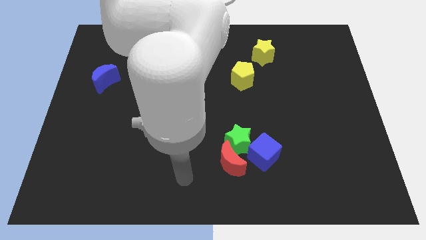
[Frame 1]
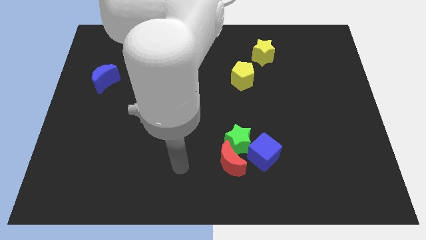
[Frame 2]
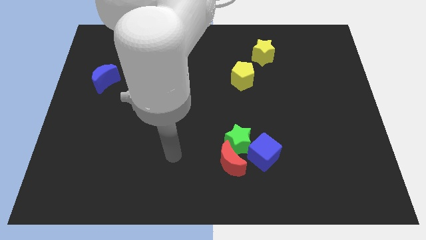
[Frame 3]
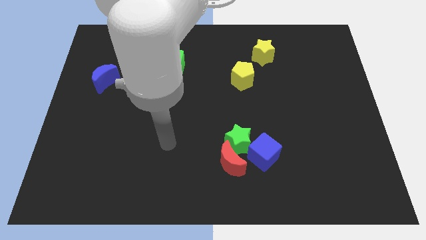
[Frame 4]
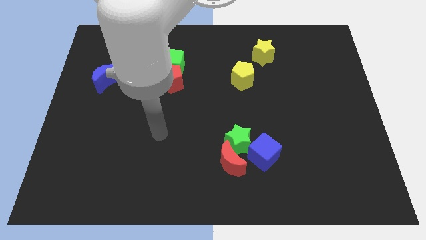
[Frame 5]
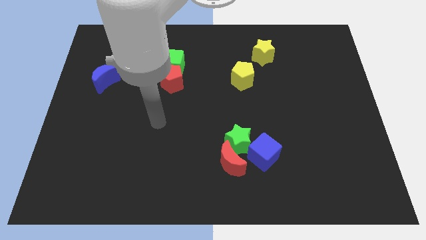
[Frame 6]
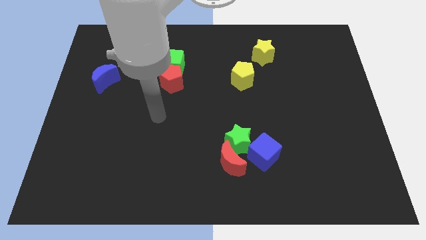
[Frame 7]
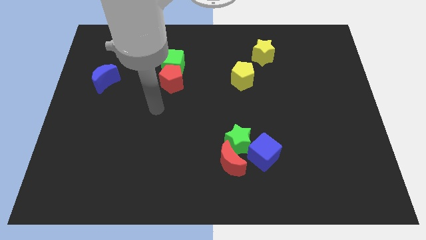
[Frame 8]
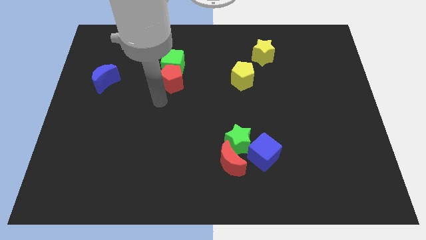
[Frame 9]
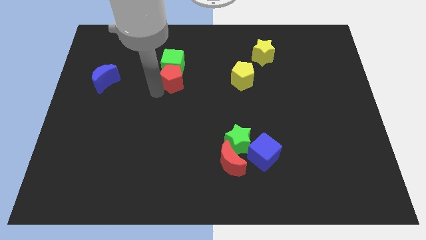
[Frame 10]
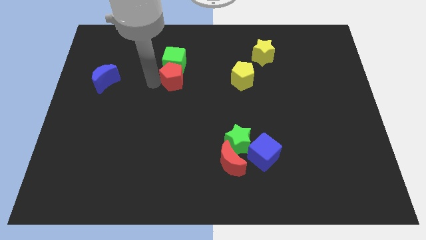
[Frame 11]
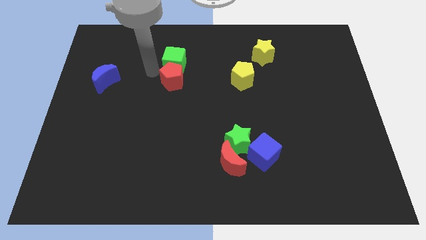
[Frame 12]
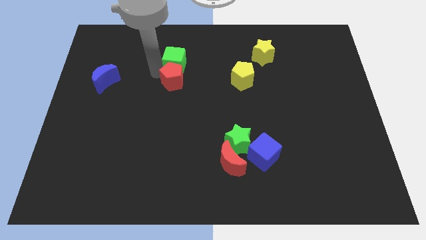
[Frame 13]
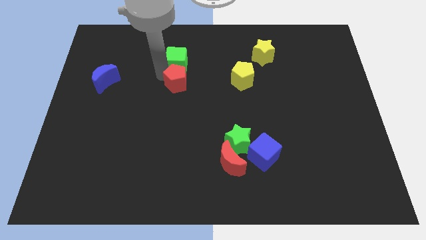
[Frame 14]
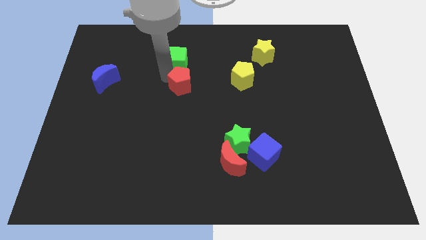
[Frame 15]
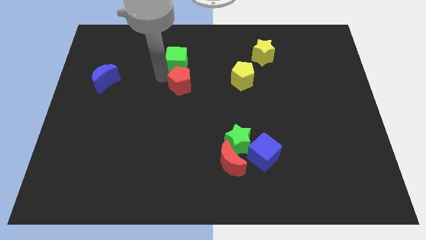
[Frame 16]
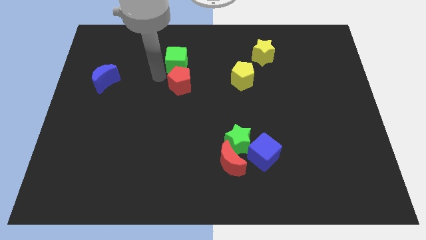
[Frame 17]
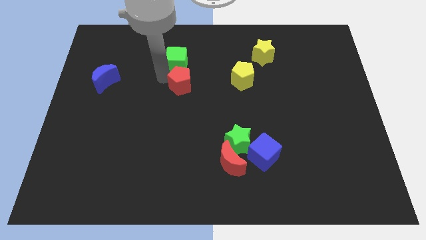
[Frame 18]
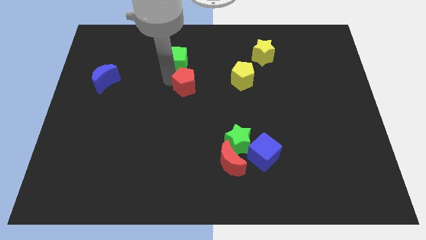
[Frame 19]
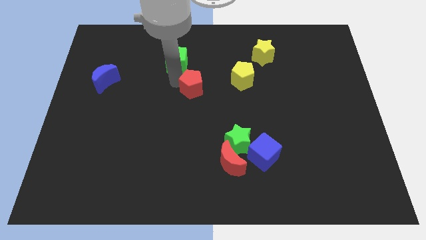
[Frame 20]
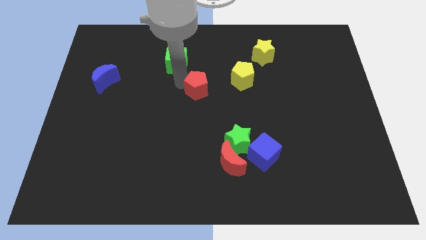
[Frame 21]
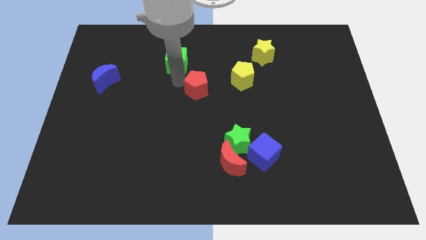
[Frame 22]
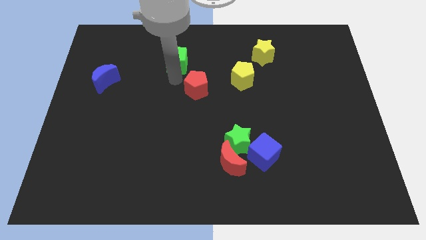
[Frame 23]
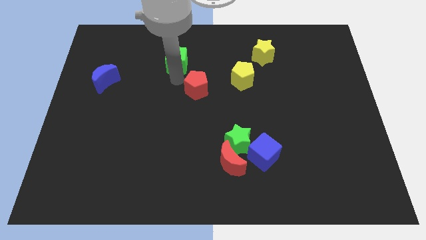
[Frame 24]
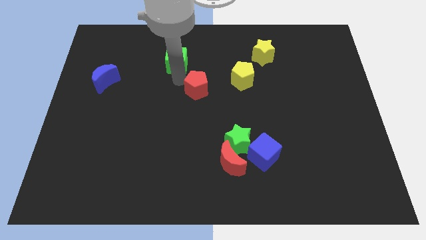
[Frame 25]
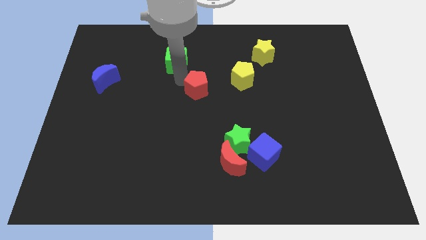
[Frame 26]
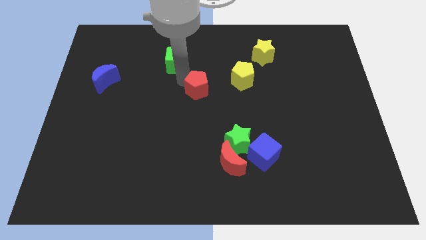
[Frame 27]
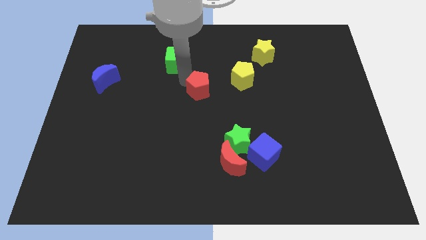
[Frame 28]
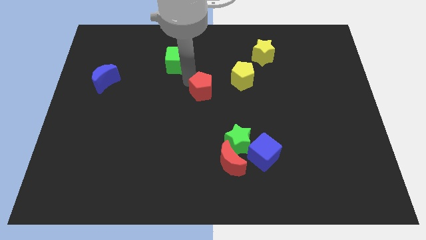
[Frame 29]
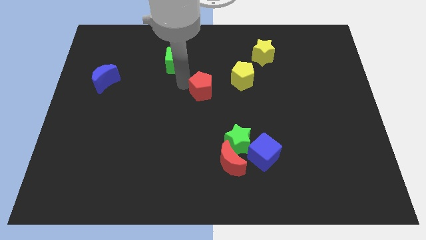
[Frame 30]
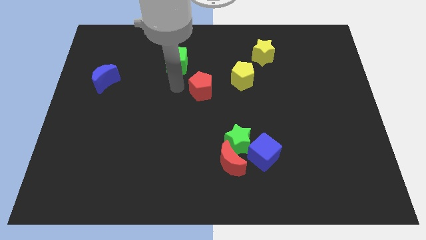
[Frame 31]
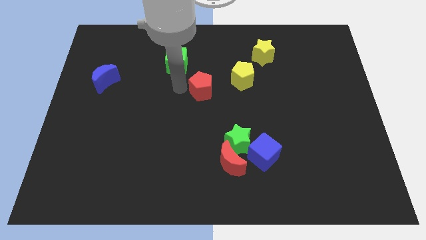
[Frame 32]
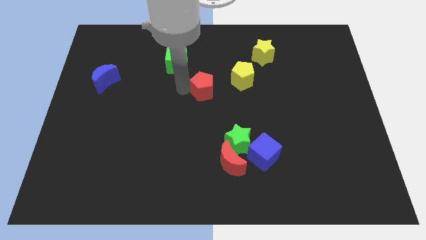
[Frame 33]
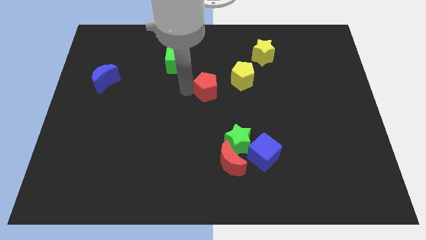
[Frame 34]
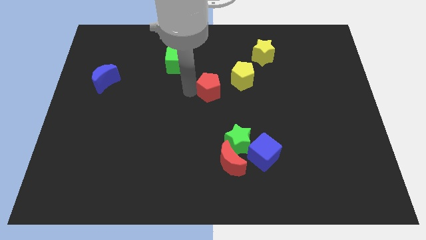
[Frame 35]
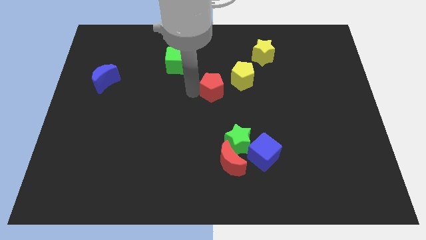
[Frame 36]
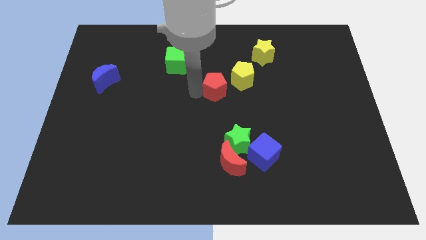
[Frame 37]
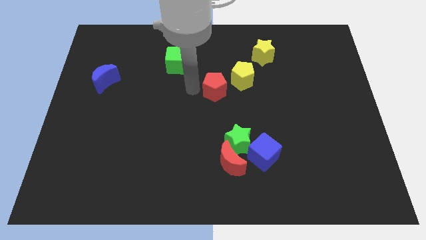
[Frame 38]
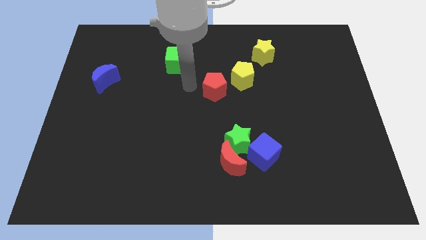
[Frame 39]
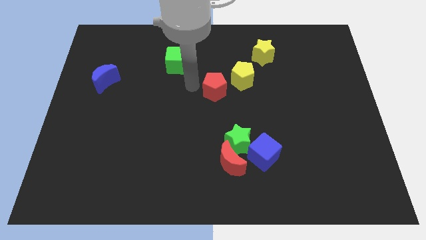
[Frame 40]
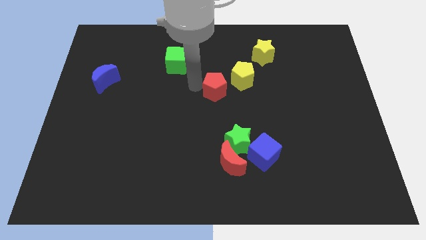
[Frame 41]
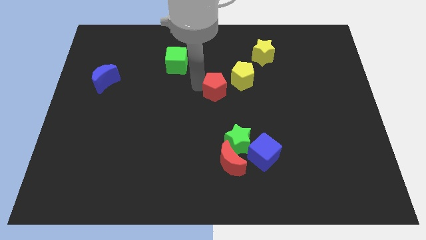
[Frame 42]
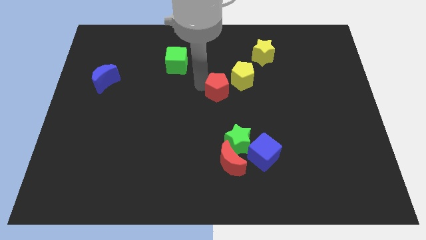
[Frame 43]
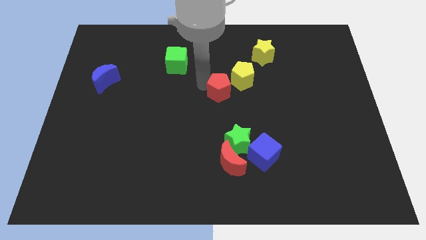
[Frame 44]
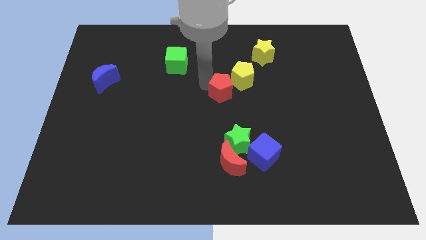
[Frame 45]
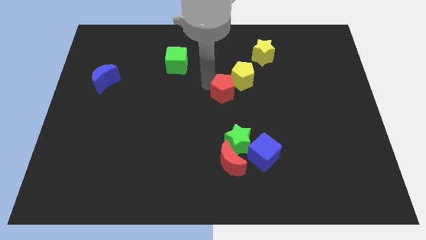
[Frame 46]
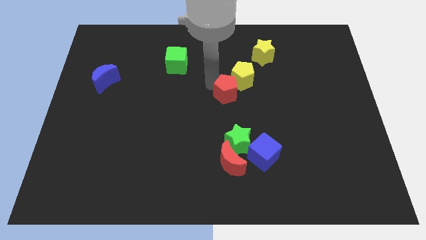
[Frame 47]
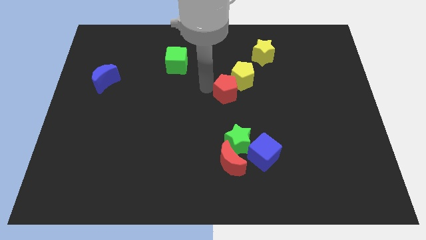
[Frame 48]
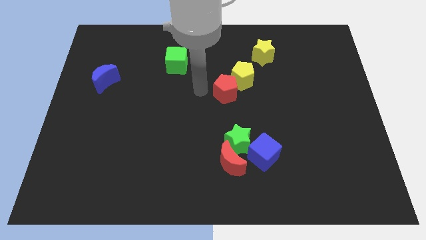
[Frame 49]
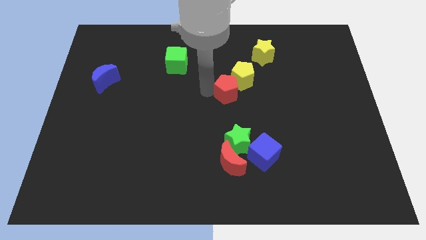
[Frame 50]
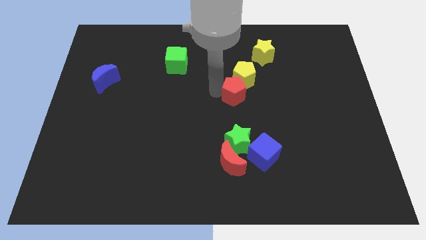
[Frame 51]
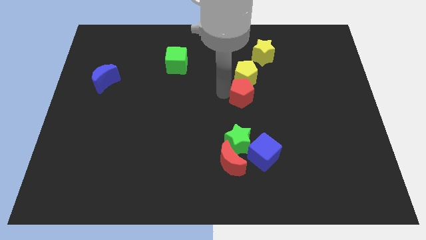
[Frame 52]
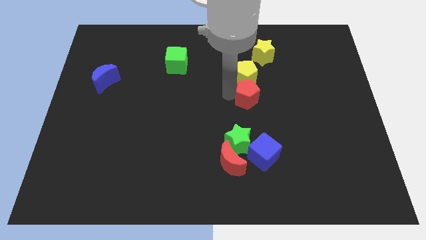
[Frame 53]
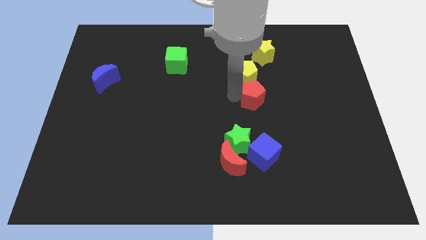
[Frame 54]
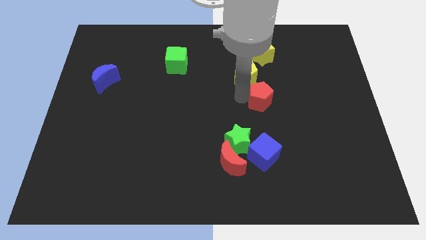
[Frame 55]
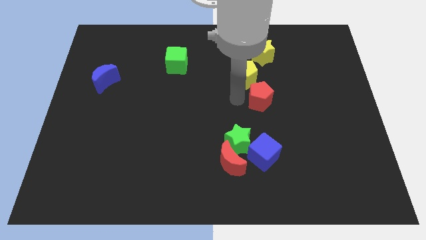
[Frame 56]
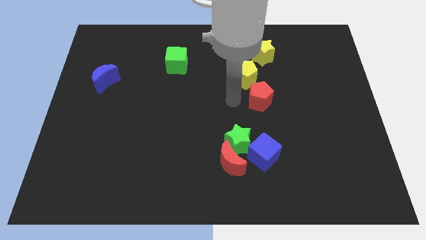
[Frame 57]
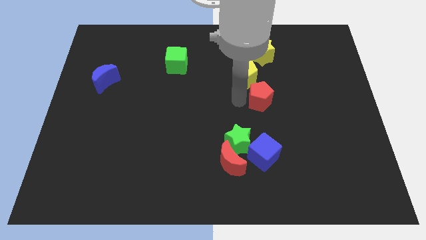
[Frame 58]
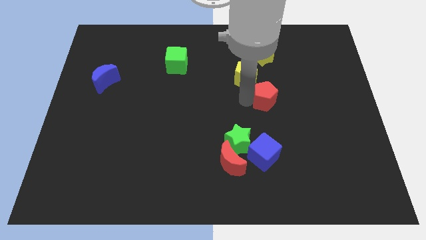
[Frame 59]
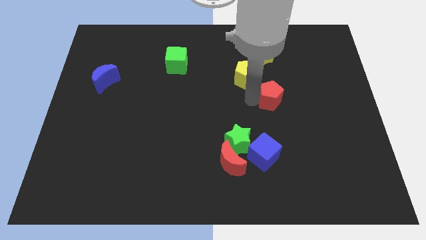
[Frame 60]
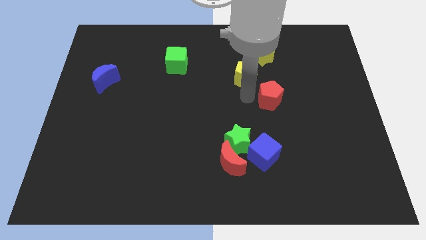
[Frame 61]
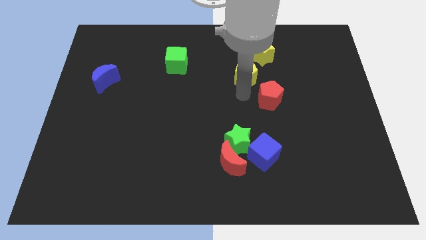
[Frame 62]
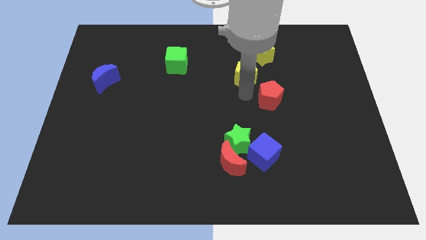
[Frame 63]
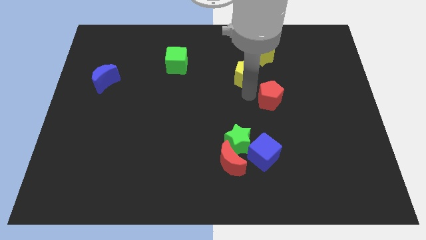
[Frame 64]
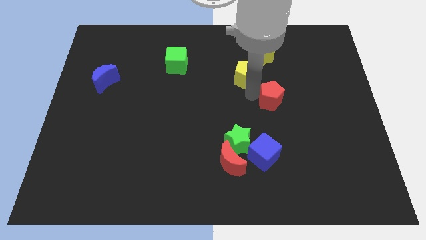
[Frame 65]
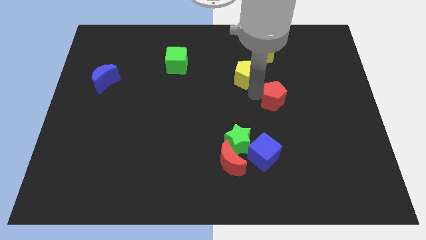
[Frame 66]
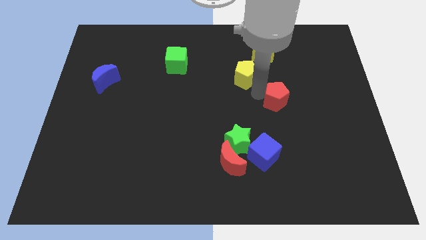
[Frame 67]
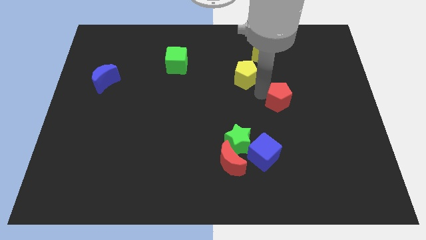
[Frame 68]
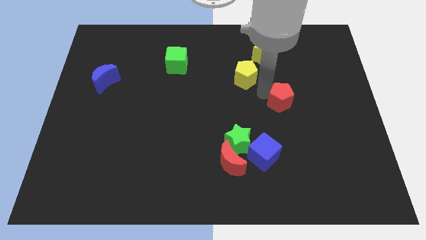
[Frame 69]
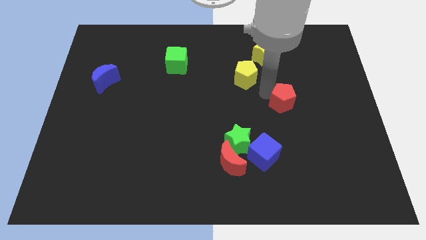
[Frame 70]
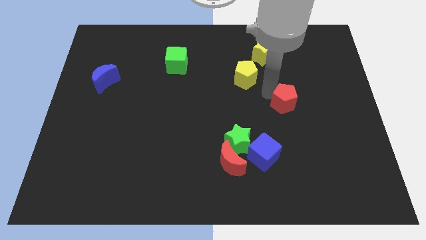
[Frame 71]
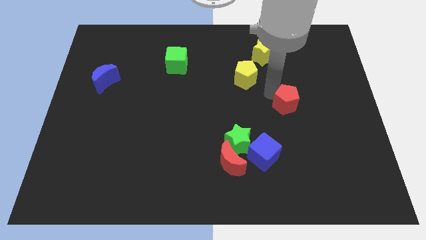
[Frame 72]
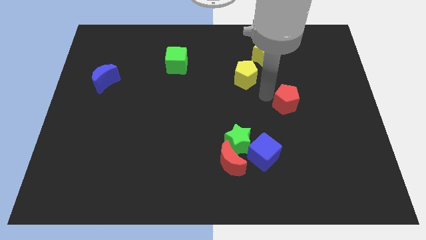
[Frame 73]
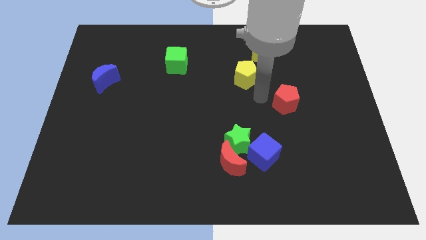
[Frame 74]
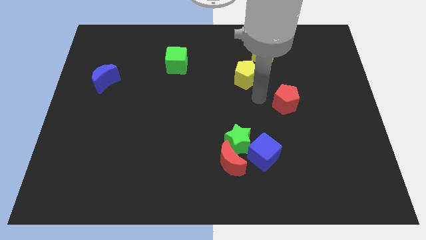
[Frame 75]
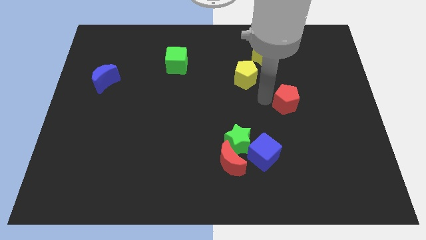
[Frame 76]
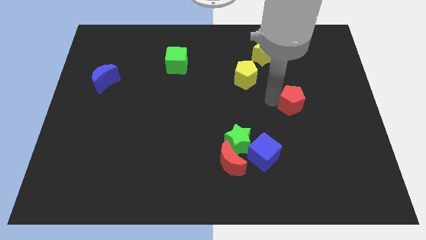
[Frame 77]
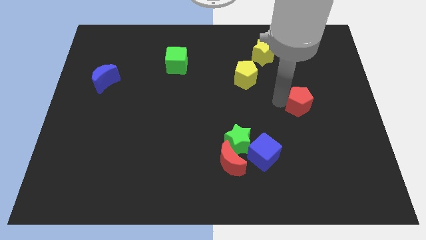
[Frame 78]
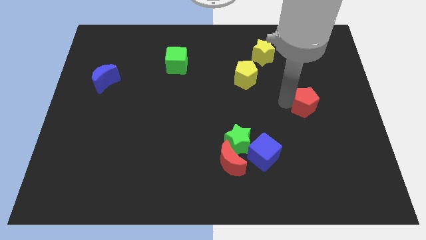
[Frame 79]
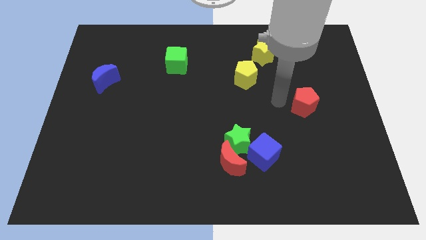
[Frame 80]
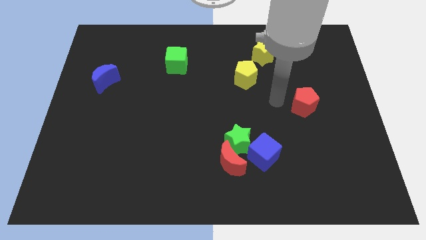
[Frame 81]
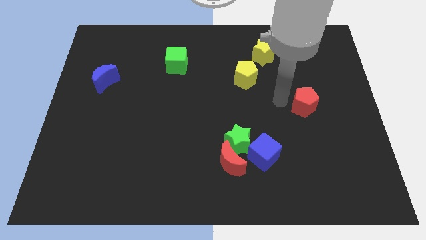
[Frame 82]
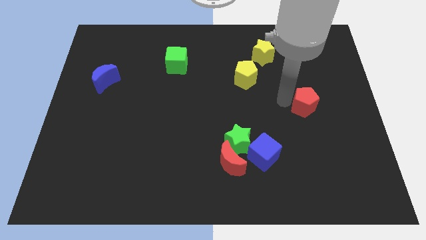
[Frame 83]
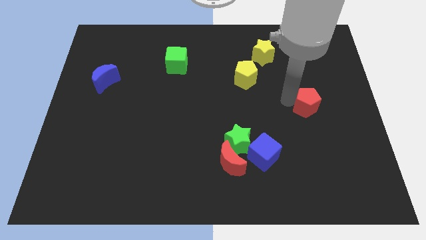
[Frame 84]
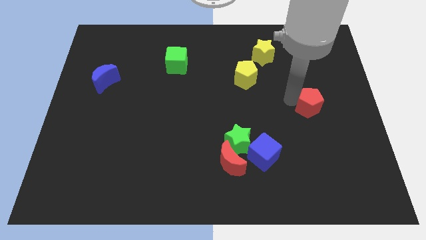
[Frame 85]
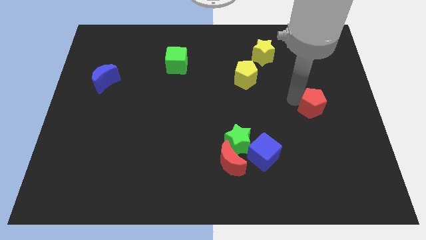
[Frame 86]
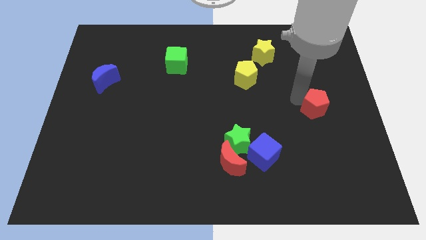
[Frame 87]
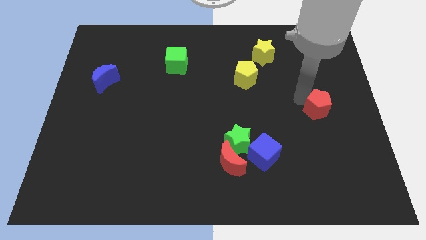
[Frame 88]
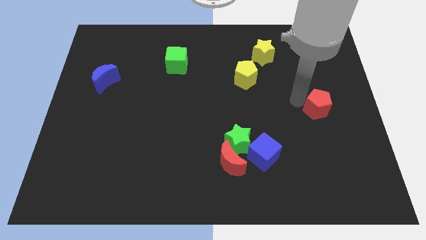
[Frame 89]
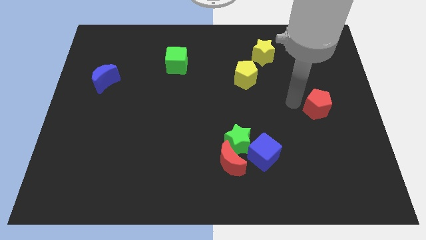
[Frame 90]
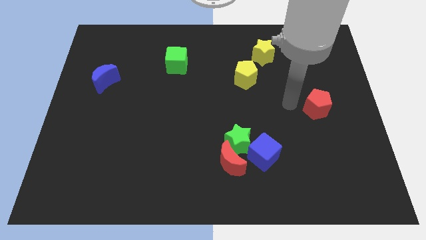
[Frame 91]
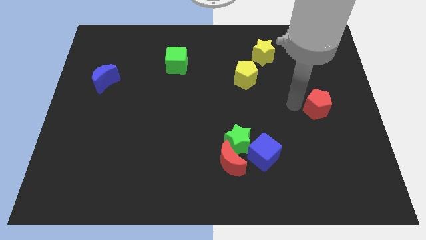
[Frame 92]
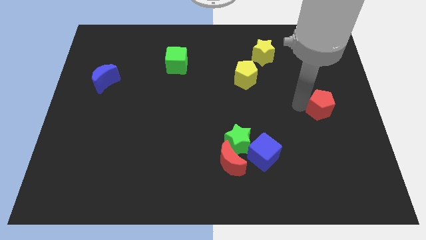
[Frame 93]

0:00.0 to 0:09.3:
slide the red pentagon to the right side
